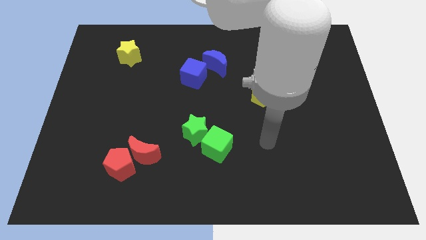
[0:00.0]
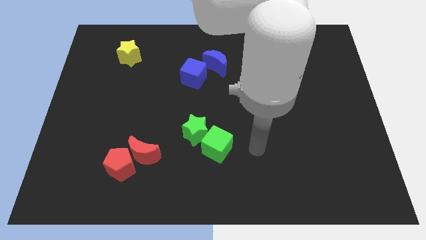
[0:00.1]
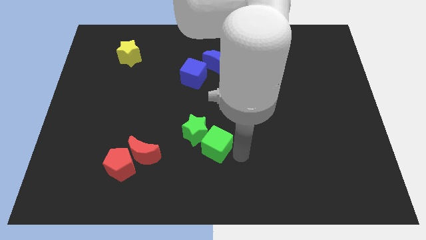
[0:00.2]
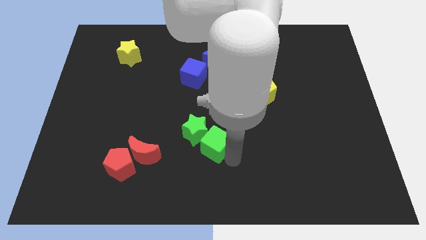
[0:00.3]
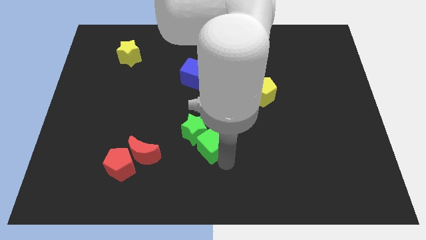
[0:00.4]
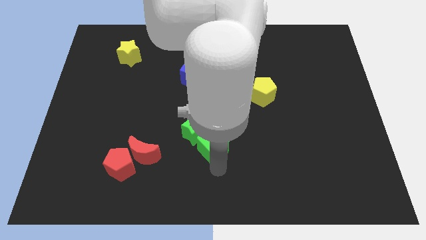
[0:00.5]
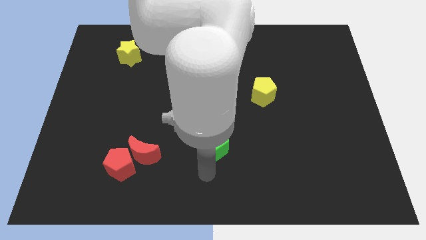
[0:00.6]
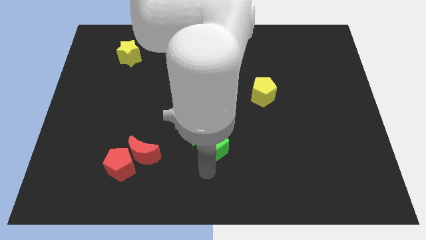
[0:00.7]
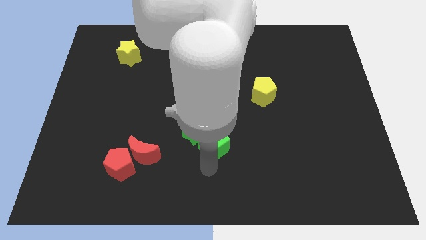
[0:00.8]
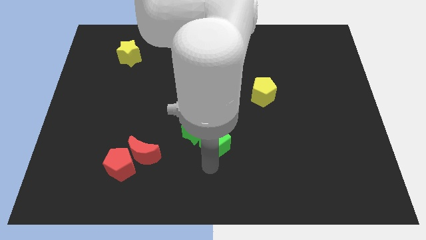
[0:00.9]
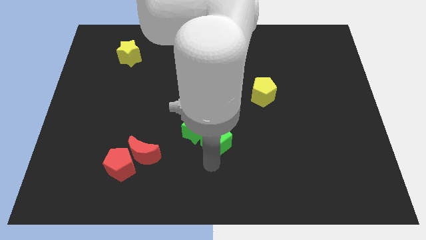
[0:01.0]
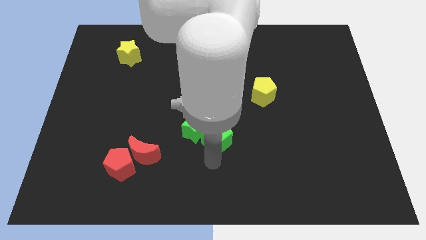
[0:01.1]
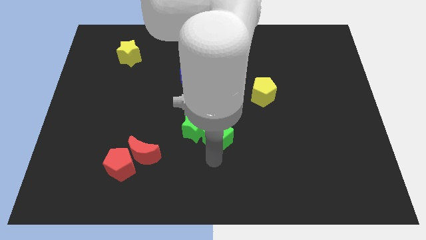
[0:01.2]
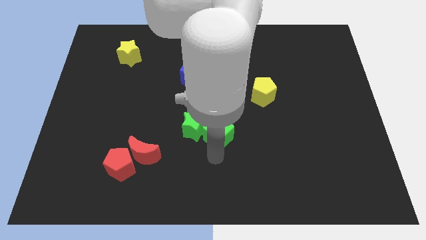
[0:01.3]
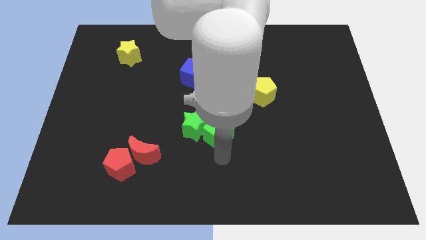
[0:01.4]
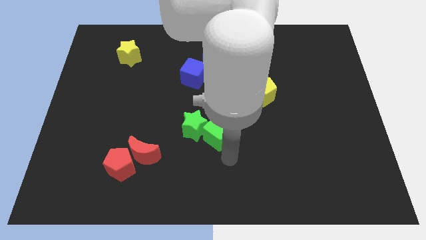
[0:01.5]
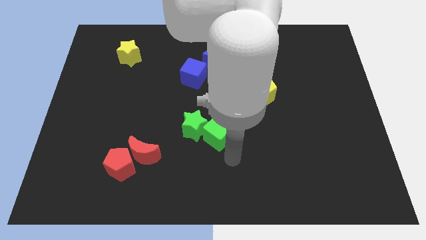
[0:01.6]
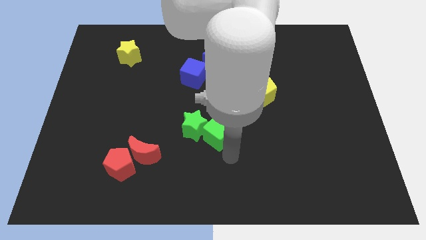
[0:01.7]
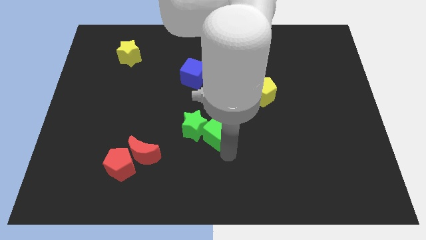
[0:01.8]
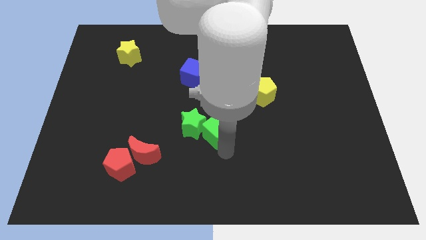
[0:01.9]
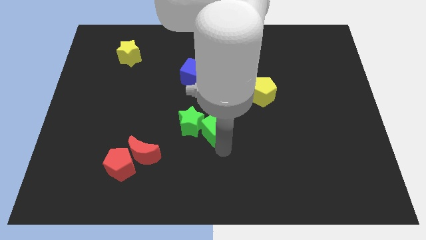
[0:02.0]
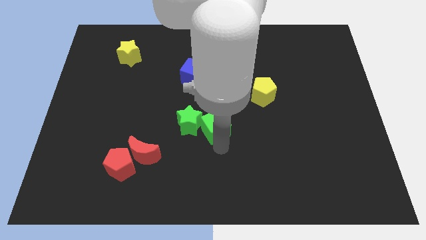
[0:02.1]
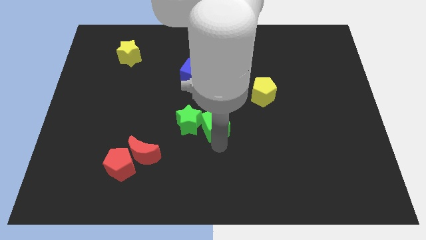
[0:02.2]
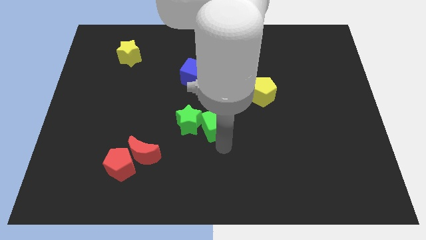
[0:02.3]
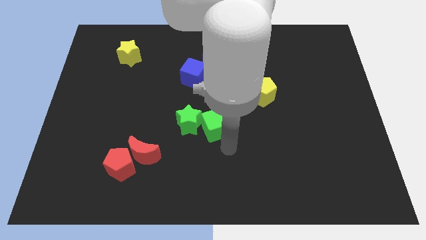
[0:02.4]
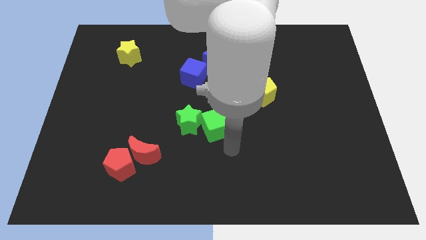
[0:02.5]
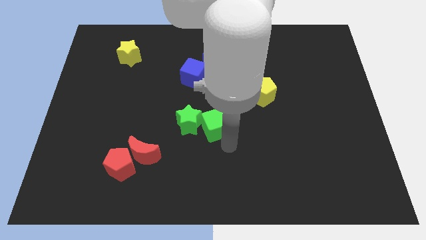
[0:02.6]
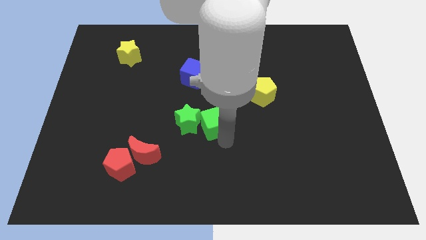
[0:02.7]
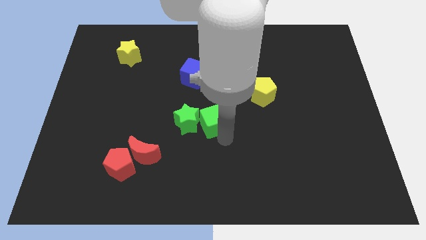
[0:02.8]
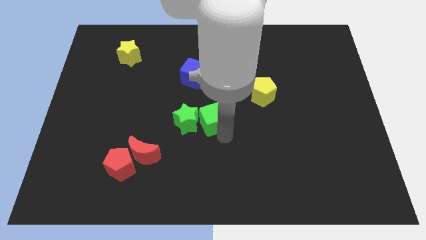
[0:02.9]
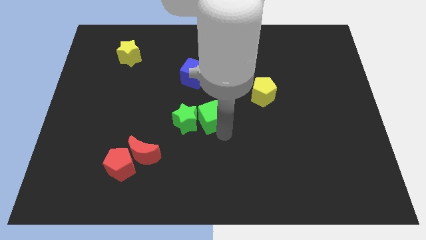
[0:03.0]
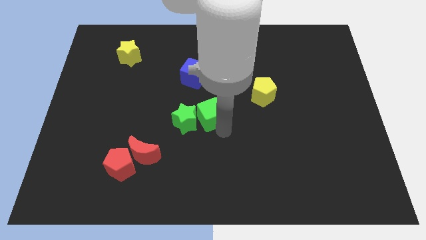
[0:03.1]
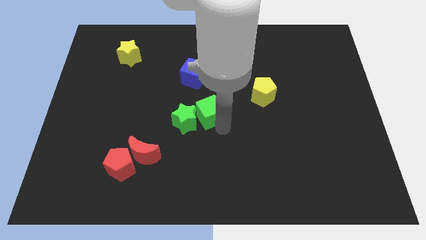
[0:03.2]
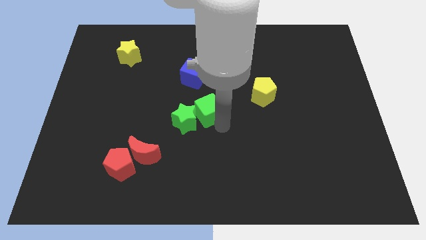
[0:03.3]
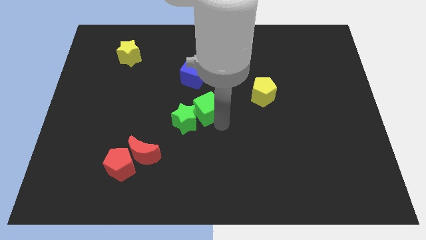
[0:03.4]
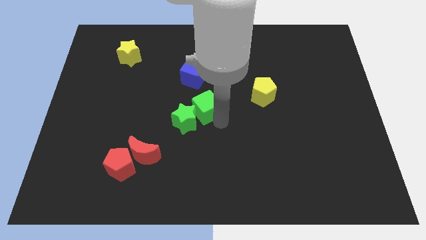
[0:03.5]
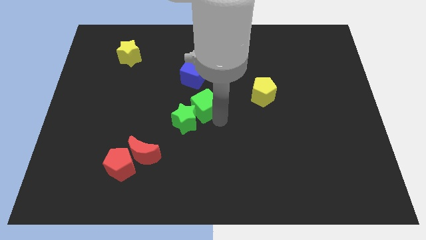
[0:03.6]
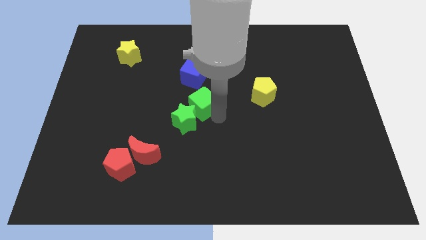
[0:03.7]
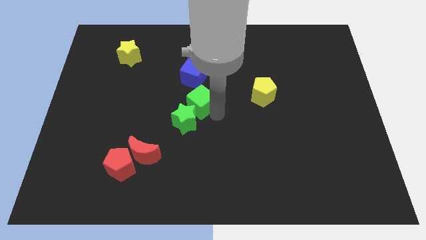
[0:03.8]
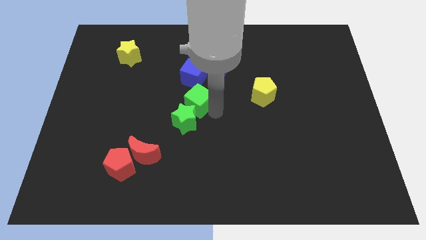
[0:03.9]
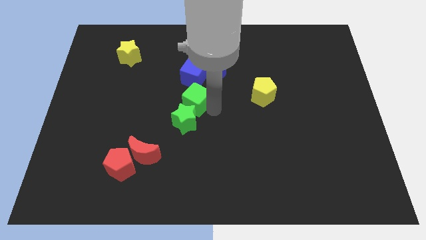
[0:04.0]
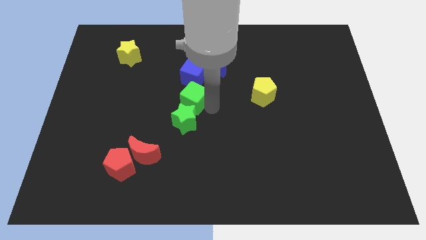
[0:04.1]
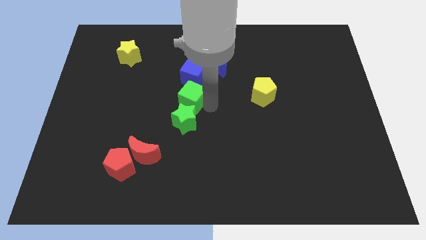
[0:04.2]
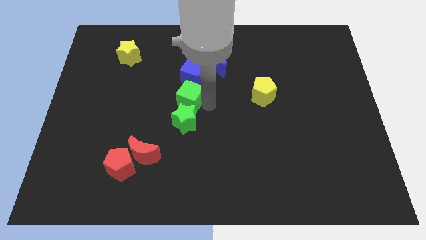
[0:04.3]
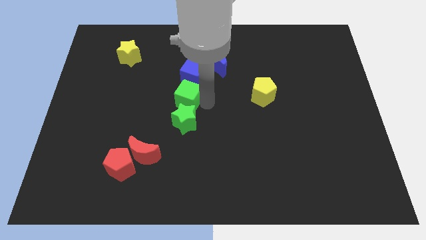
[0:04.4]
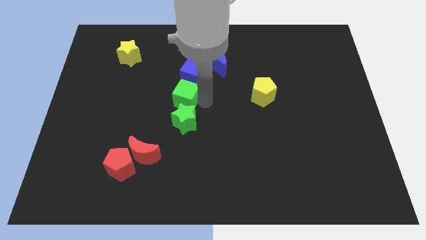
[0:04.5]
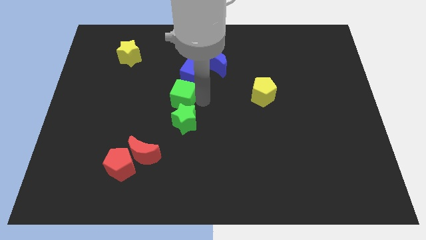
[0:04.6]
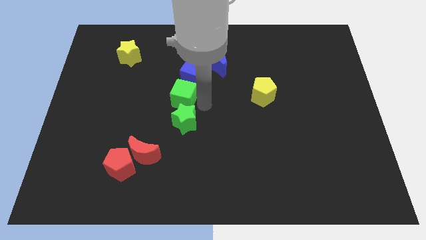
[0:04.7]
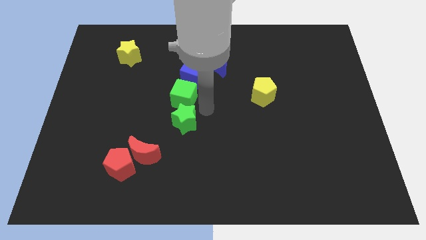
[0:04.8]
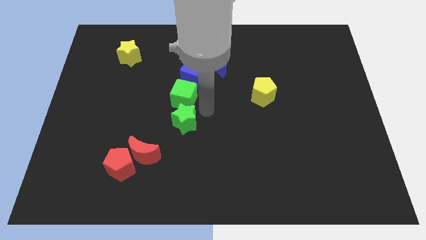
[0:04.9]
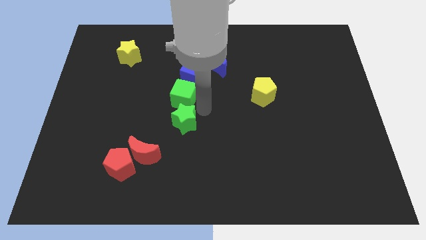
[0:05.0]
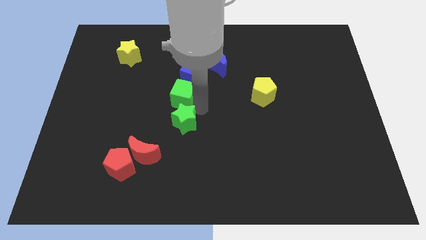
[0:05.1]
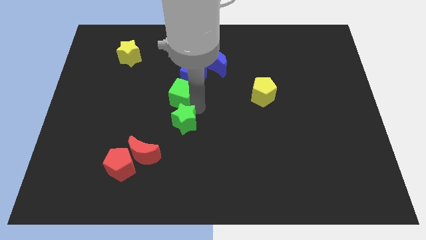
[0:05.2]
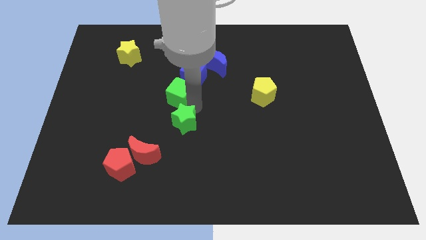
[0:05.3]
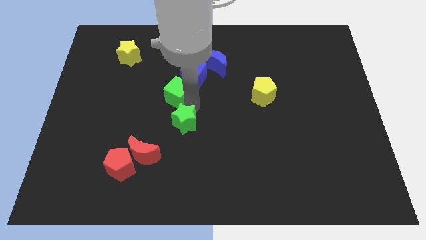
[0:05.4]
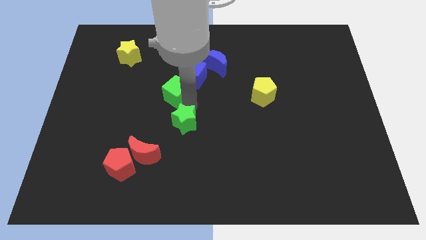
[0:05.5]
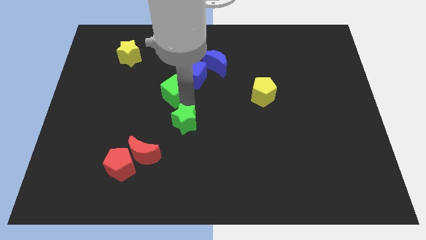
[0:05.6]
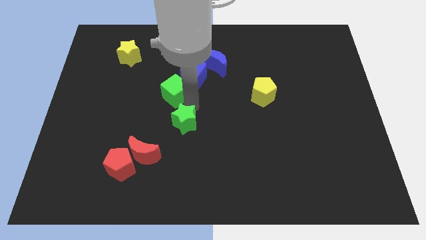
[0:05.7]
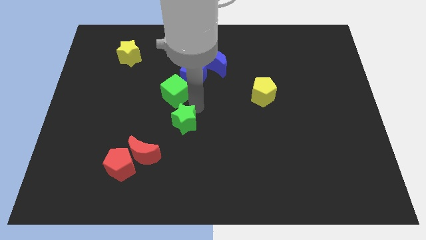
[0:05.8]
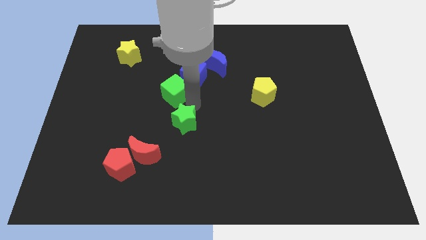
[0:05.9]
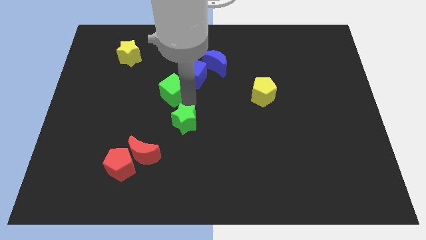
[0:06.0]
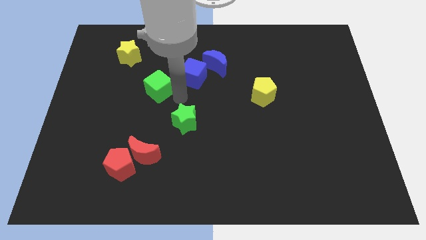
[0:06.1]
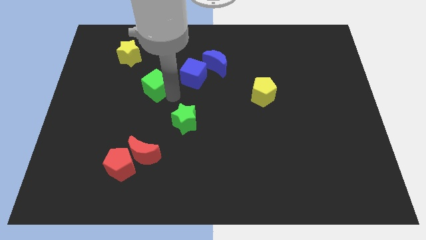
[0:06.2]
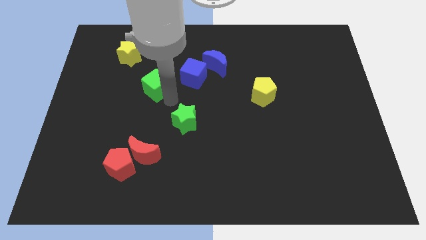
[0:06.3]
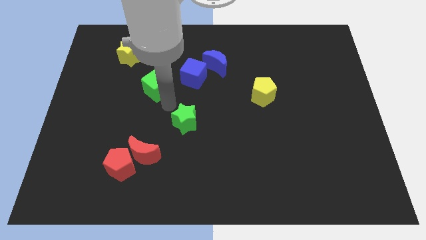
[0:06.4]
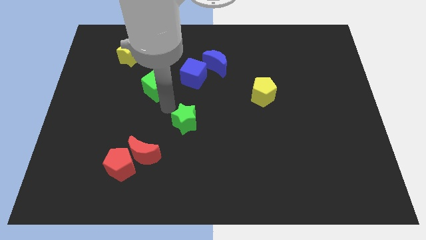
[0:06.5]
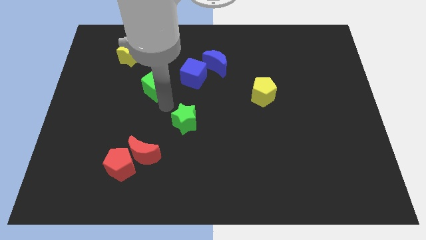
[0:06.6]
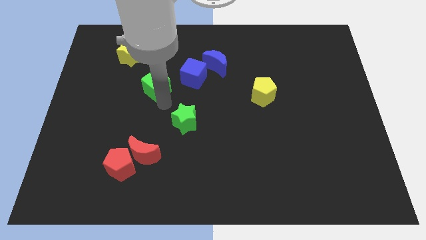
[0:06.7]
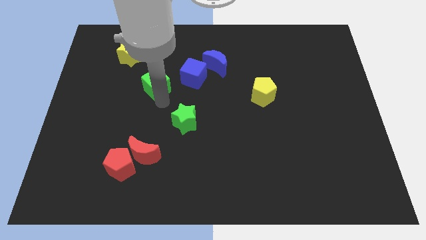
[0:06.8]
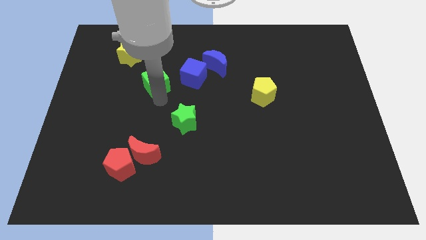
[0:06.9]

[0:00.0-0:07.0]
move the green cube to the bottom right of the yellow star
